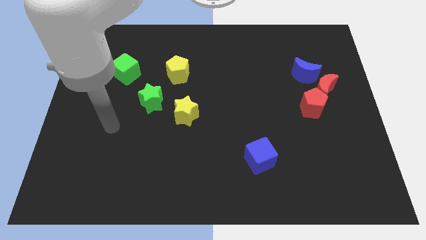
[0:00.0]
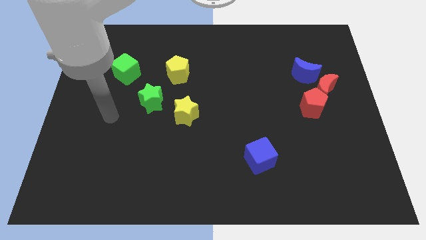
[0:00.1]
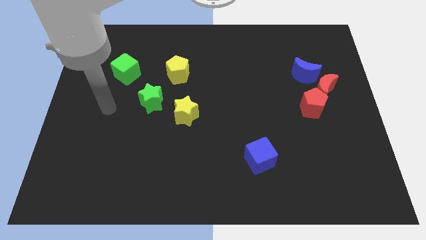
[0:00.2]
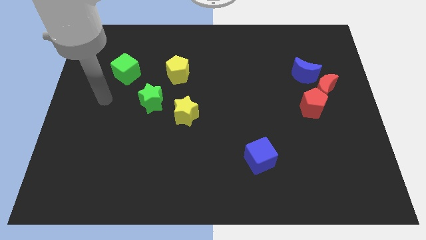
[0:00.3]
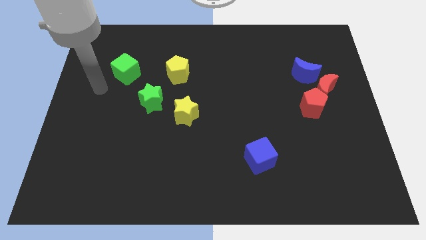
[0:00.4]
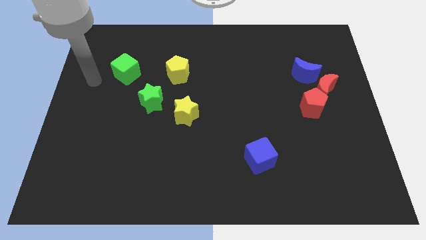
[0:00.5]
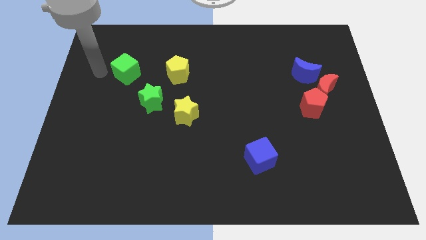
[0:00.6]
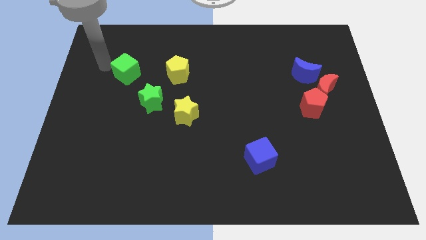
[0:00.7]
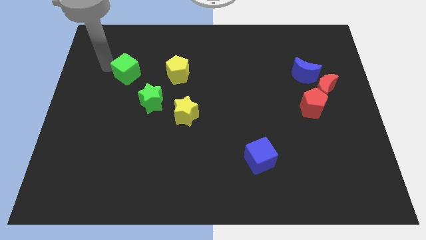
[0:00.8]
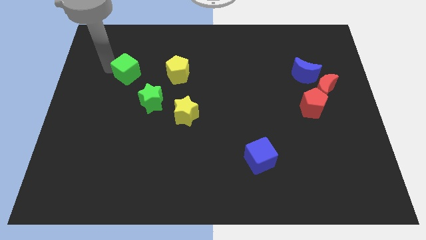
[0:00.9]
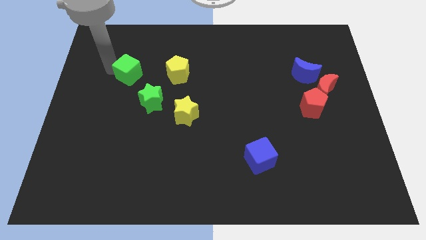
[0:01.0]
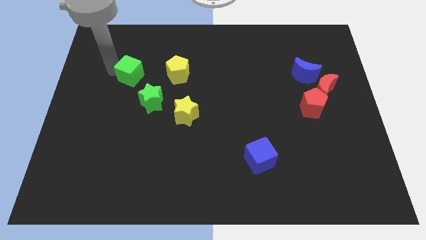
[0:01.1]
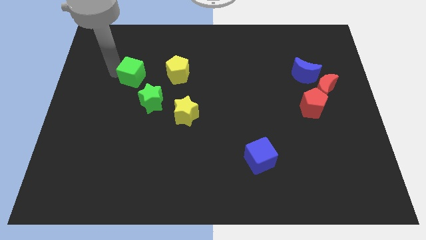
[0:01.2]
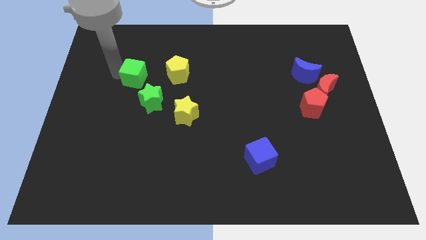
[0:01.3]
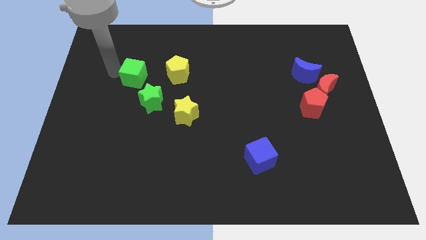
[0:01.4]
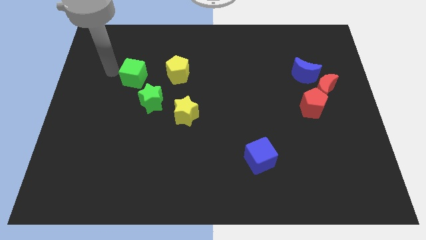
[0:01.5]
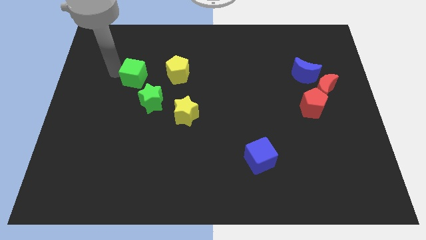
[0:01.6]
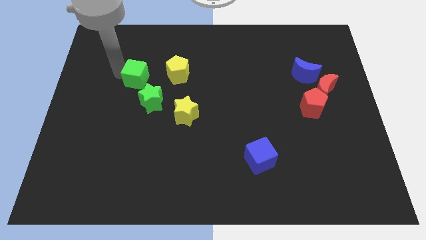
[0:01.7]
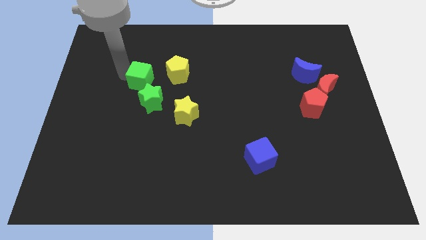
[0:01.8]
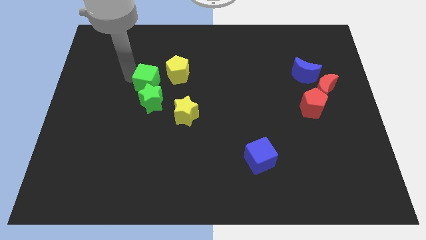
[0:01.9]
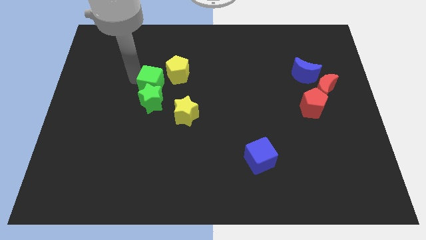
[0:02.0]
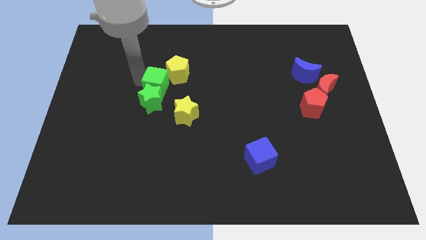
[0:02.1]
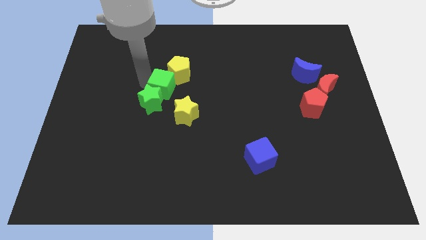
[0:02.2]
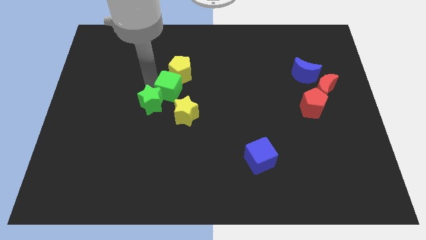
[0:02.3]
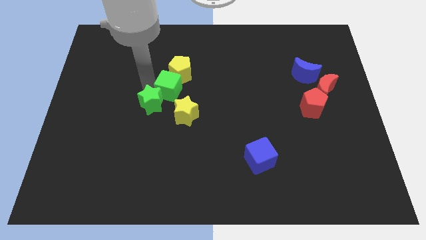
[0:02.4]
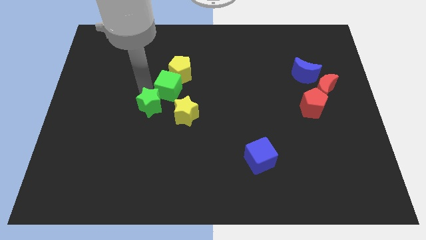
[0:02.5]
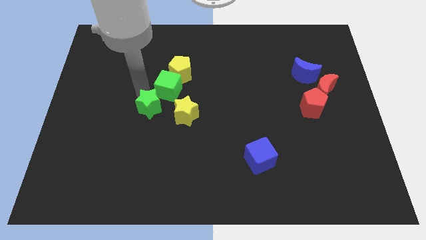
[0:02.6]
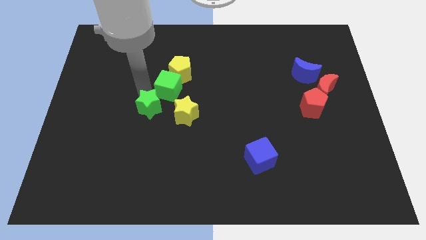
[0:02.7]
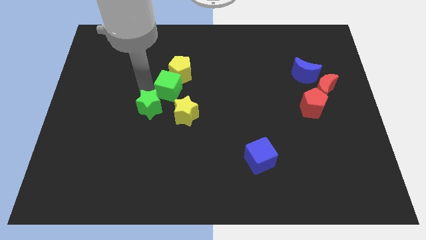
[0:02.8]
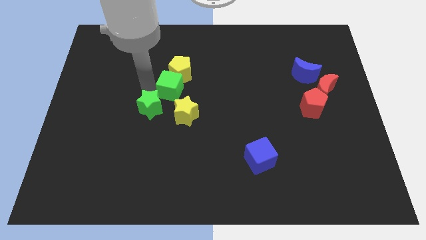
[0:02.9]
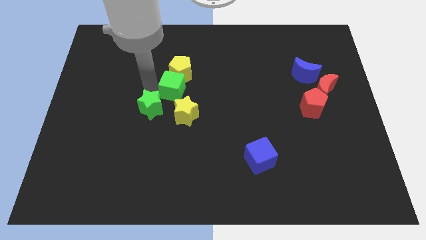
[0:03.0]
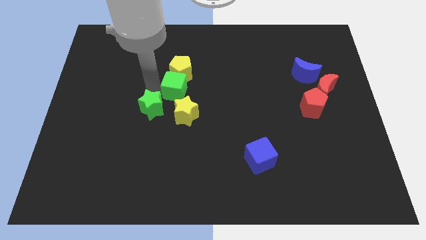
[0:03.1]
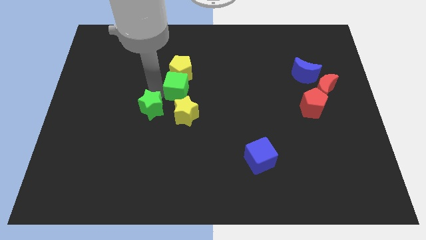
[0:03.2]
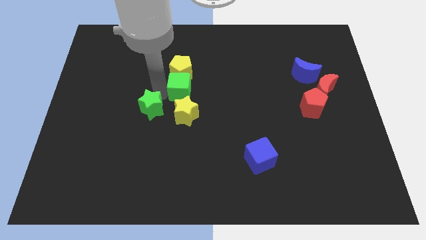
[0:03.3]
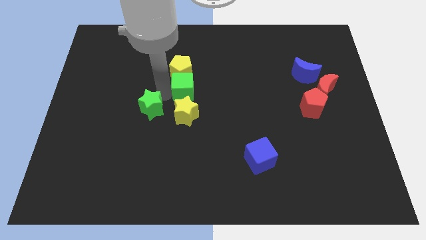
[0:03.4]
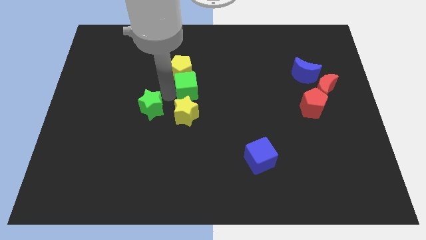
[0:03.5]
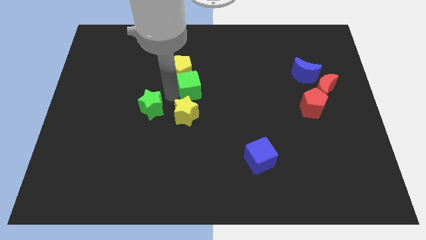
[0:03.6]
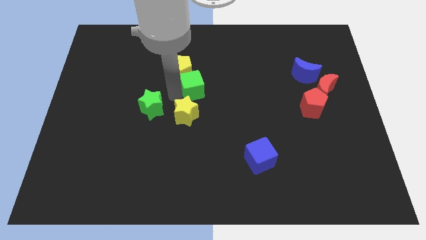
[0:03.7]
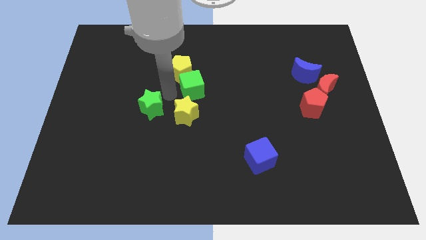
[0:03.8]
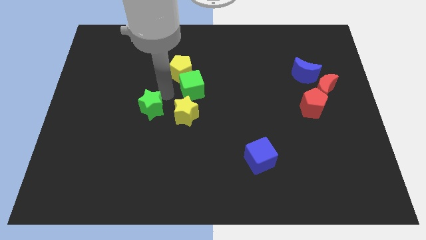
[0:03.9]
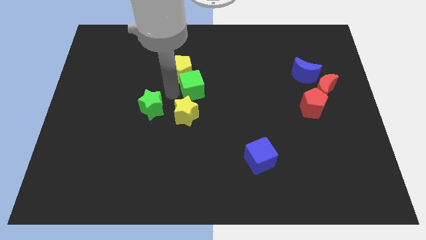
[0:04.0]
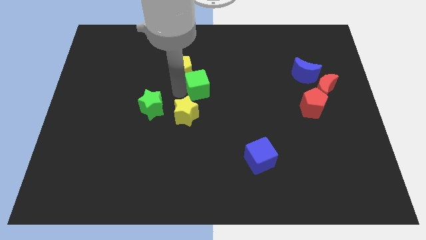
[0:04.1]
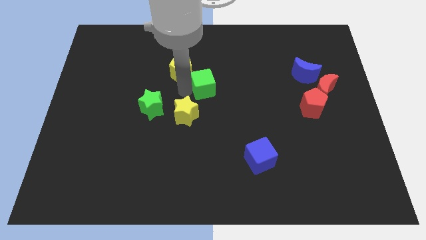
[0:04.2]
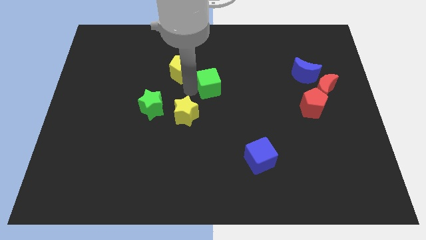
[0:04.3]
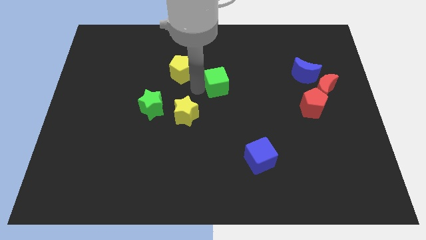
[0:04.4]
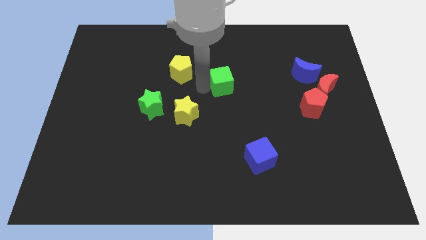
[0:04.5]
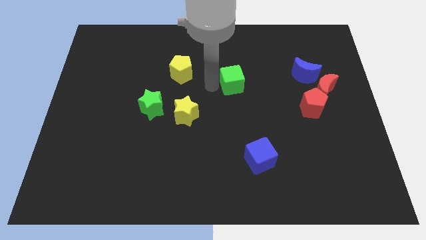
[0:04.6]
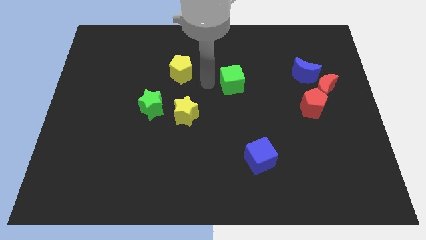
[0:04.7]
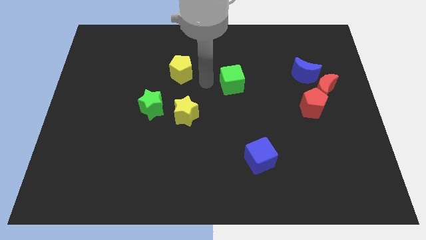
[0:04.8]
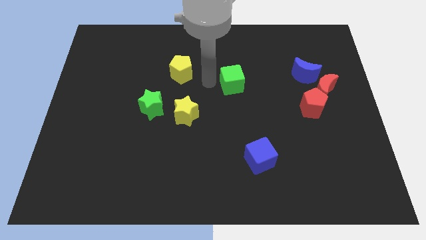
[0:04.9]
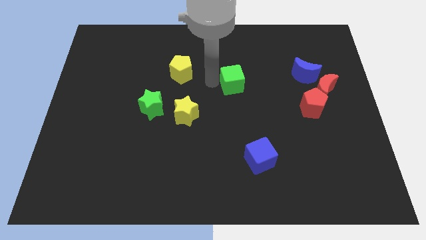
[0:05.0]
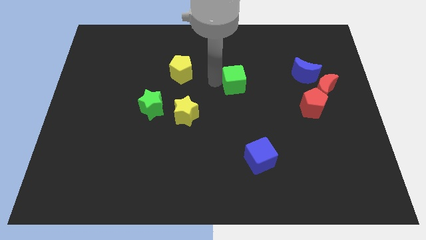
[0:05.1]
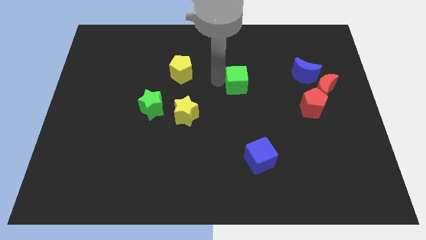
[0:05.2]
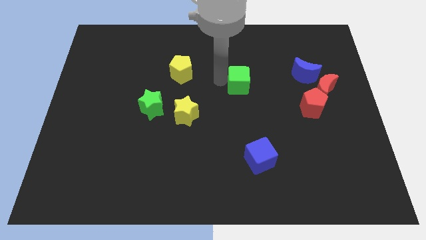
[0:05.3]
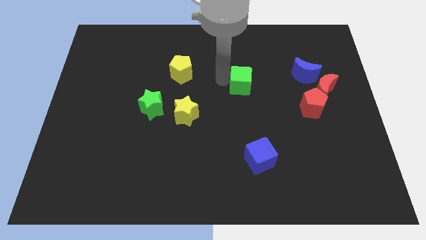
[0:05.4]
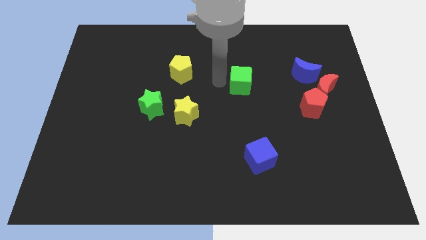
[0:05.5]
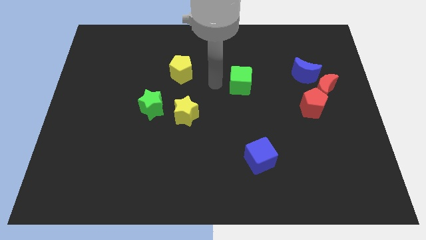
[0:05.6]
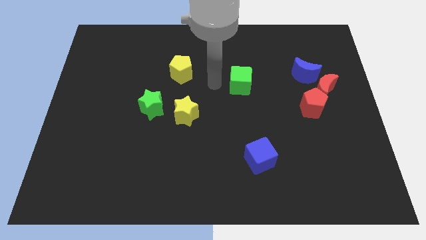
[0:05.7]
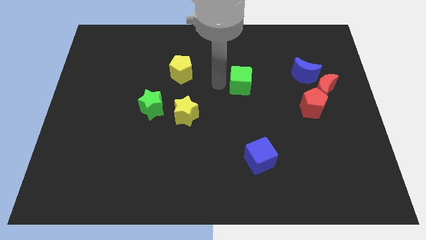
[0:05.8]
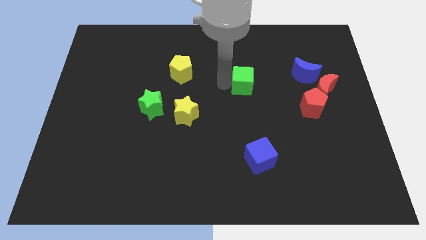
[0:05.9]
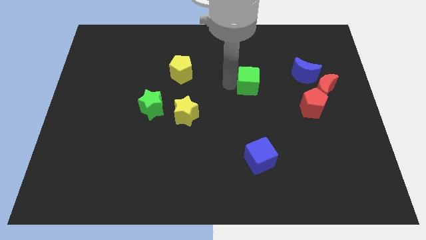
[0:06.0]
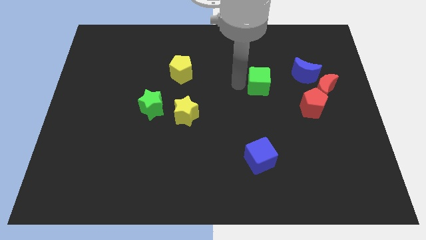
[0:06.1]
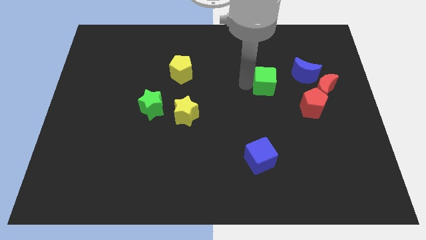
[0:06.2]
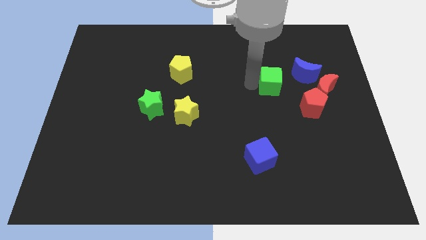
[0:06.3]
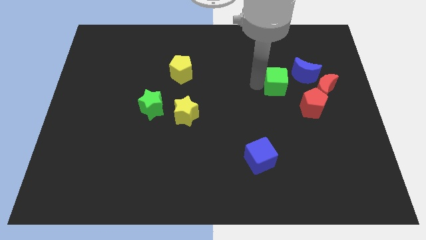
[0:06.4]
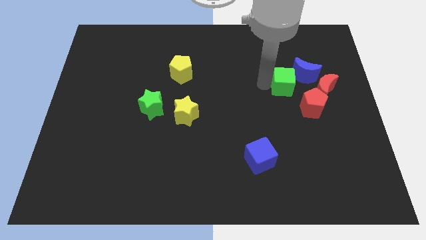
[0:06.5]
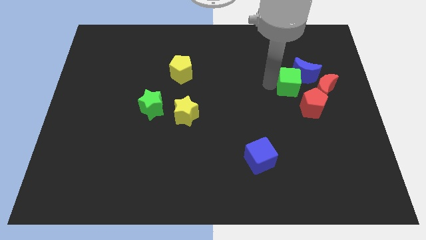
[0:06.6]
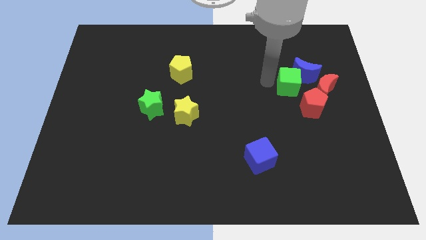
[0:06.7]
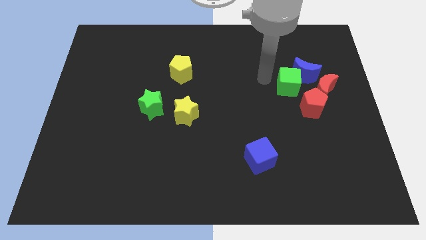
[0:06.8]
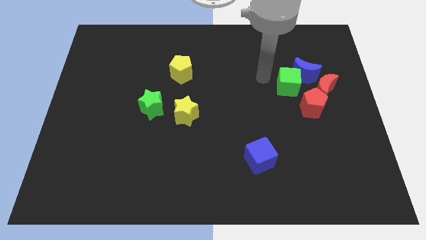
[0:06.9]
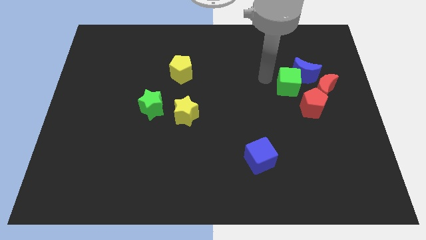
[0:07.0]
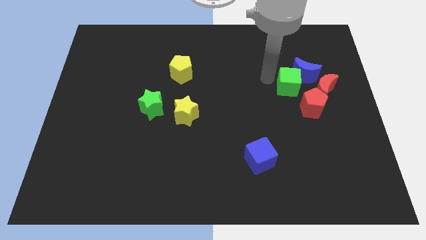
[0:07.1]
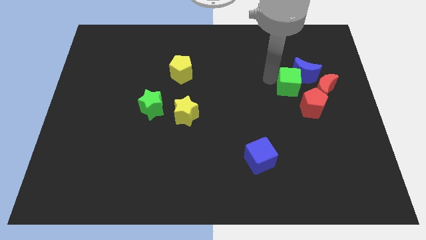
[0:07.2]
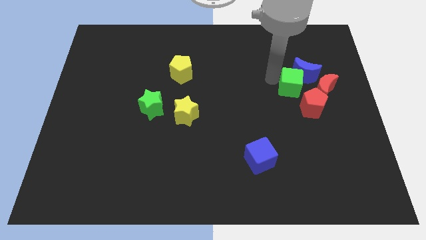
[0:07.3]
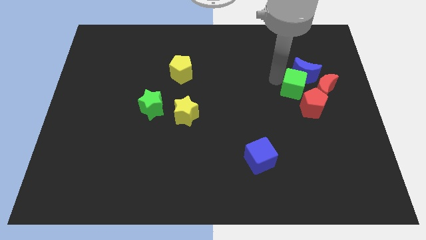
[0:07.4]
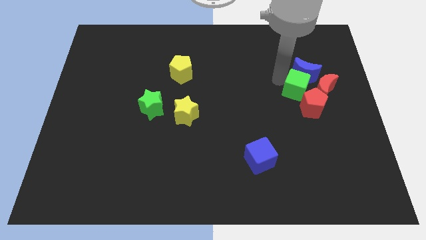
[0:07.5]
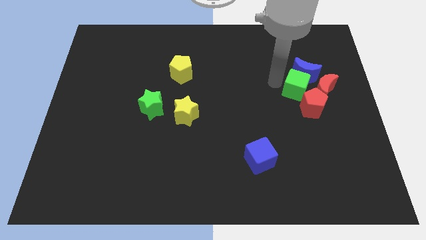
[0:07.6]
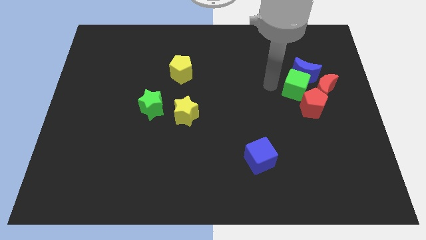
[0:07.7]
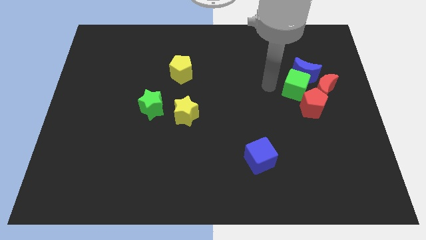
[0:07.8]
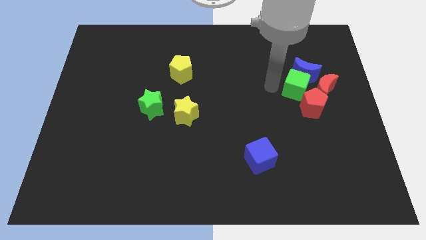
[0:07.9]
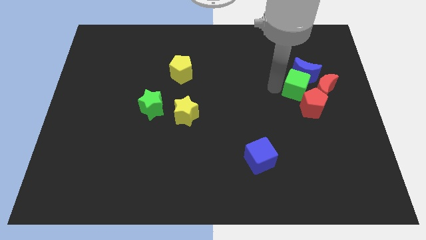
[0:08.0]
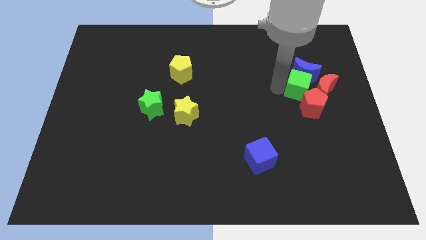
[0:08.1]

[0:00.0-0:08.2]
put the green cube to the red moon

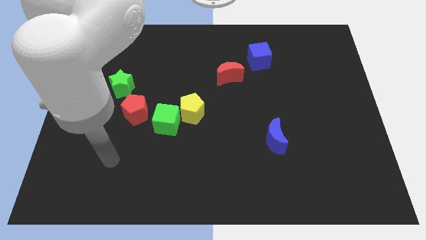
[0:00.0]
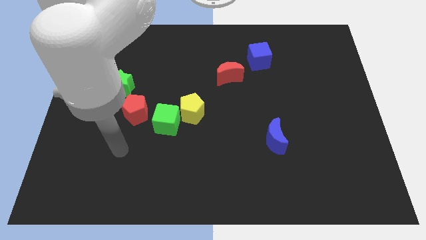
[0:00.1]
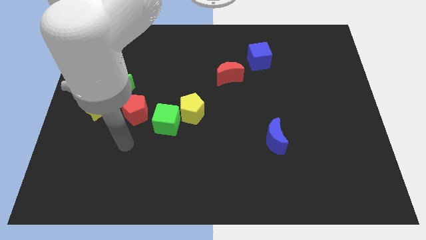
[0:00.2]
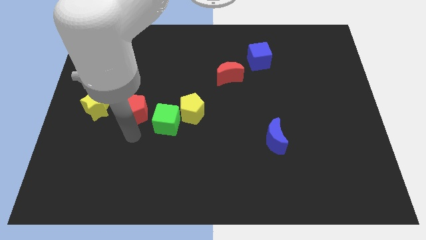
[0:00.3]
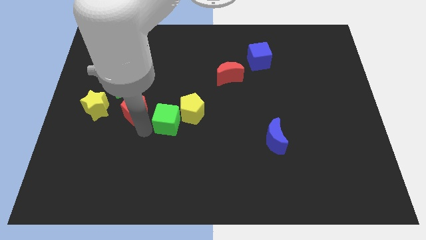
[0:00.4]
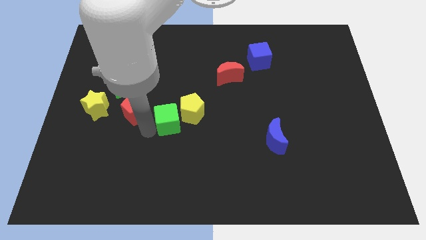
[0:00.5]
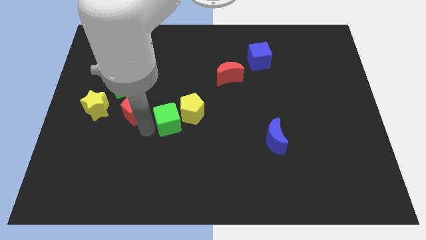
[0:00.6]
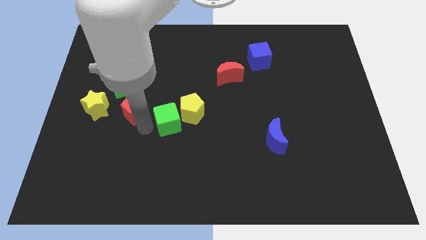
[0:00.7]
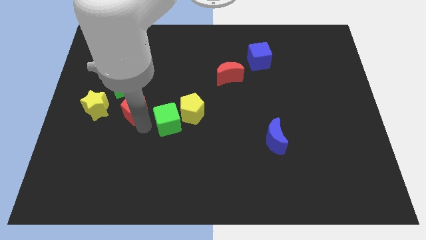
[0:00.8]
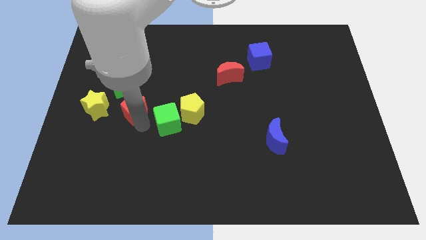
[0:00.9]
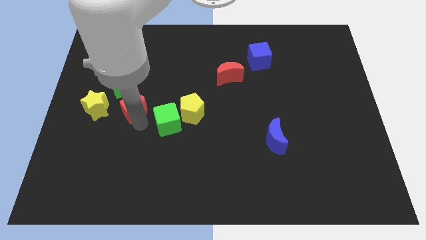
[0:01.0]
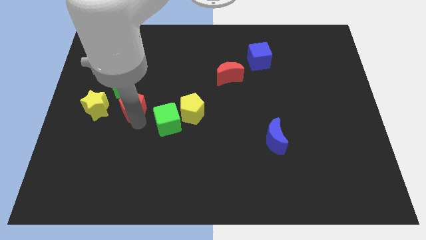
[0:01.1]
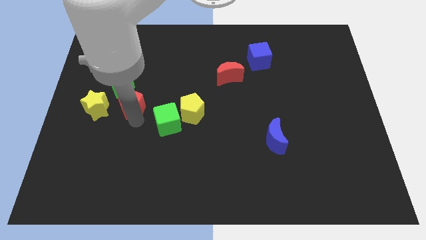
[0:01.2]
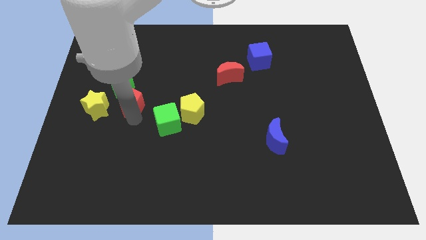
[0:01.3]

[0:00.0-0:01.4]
push the red pentagon towards the green star
